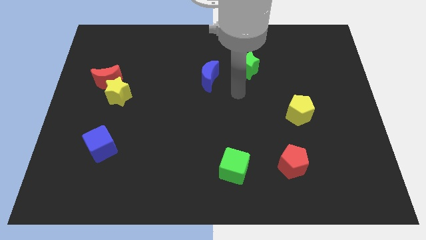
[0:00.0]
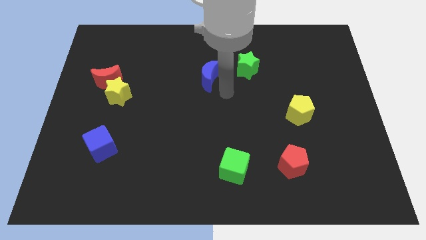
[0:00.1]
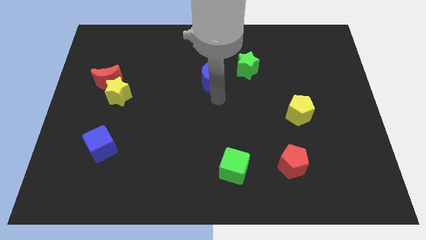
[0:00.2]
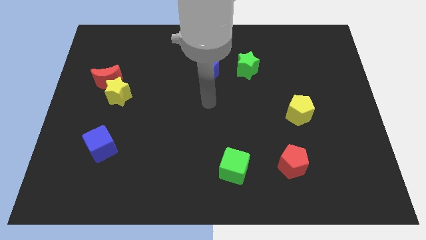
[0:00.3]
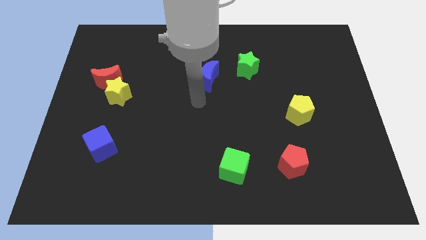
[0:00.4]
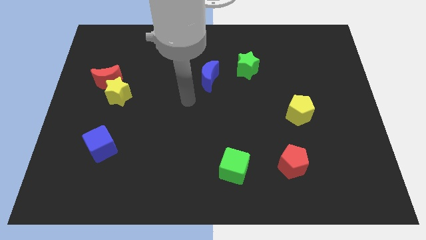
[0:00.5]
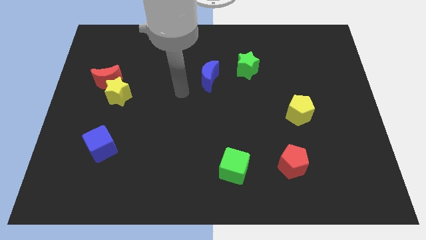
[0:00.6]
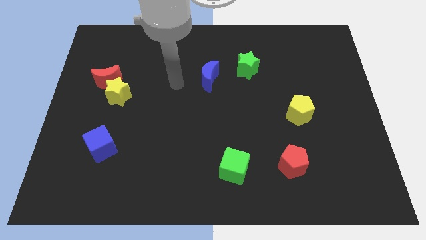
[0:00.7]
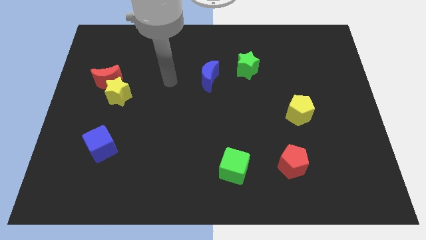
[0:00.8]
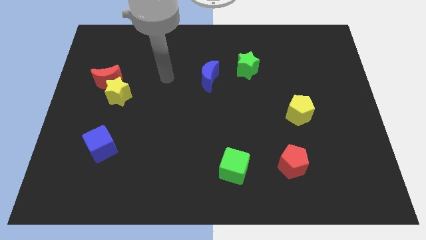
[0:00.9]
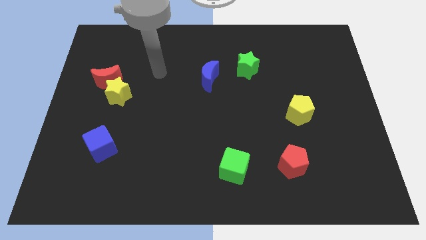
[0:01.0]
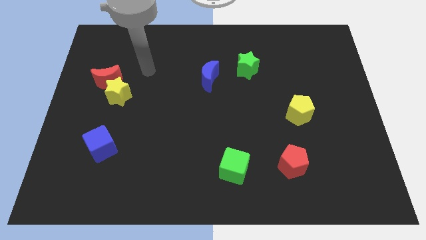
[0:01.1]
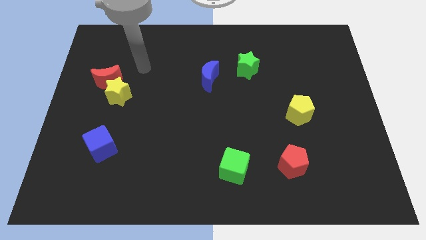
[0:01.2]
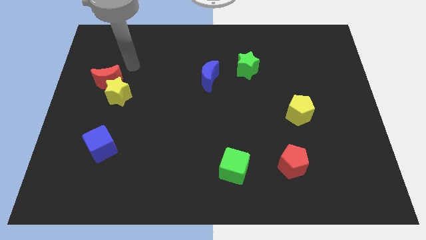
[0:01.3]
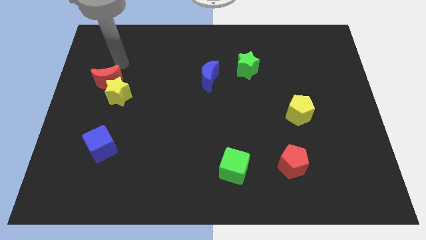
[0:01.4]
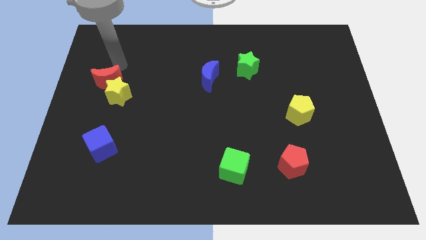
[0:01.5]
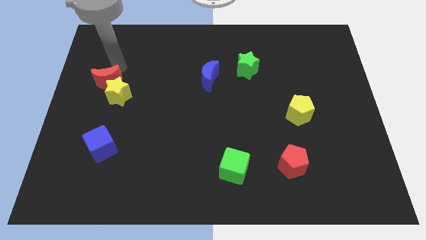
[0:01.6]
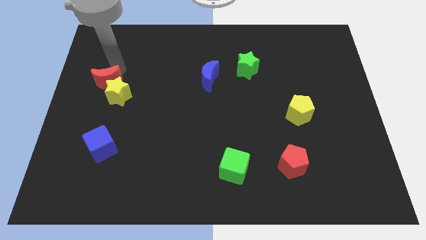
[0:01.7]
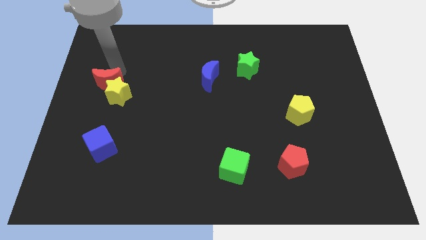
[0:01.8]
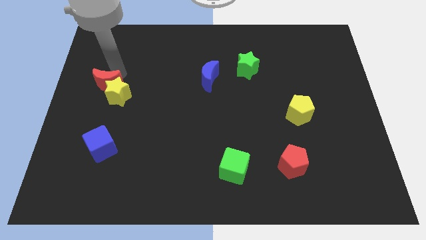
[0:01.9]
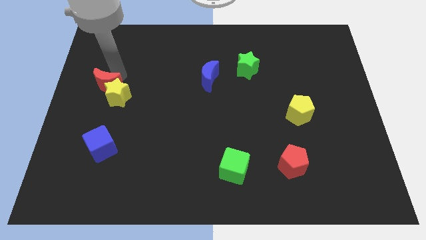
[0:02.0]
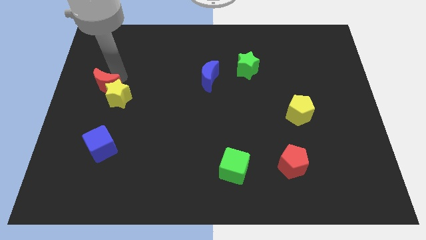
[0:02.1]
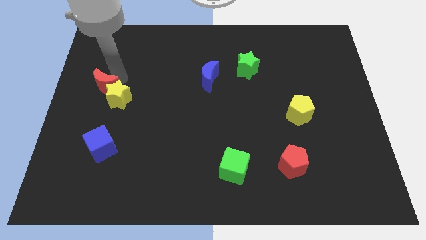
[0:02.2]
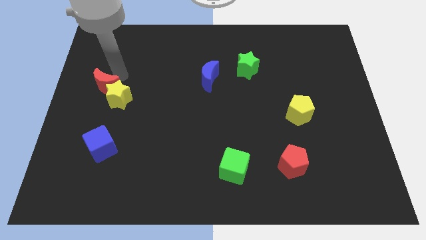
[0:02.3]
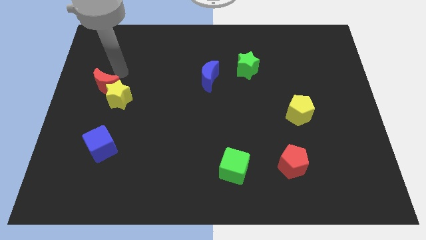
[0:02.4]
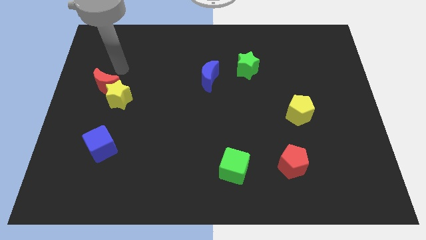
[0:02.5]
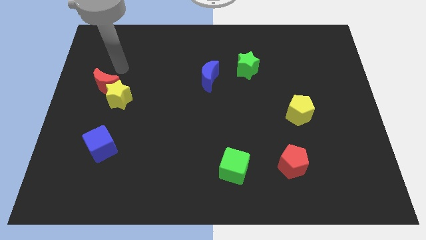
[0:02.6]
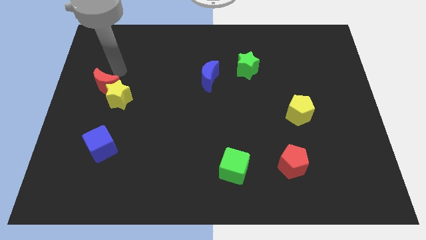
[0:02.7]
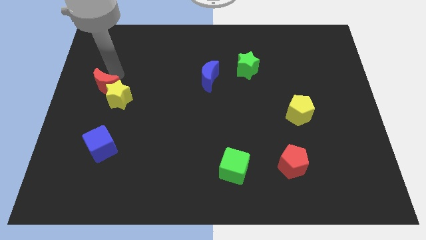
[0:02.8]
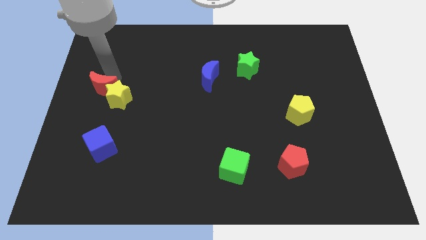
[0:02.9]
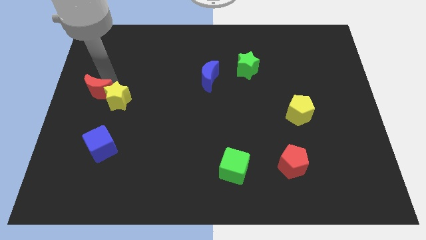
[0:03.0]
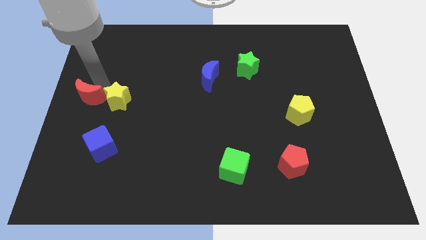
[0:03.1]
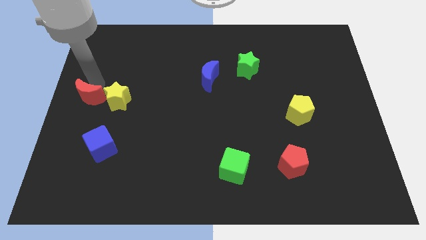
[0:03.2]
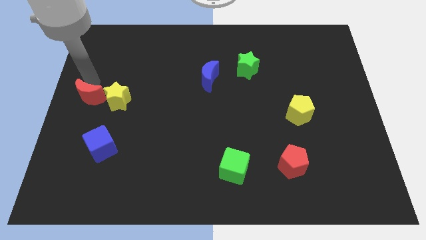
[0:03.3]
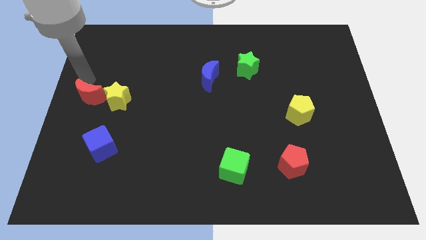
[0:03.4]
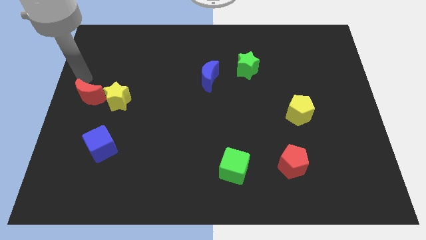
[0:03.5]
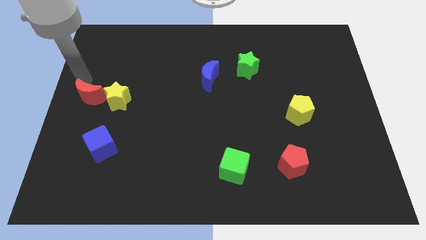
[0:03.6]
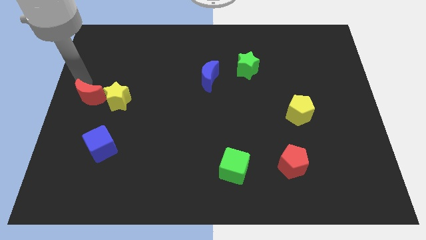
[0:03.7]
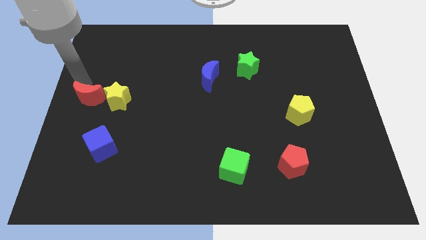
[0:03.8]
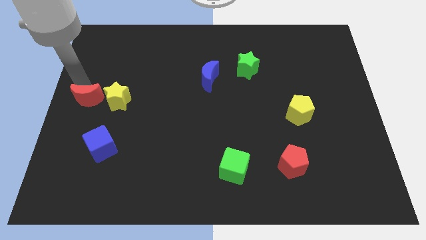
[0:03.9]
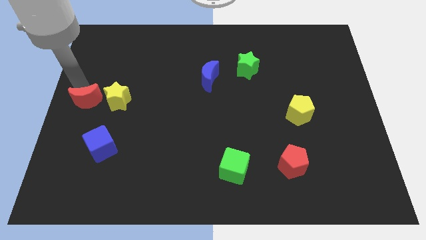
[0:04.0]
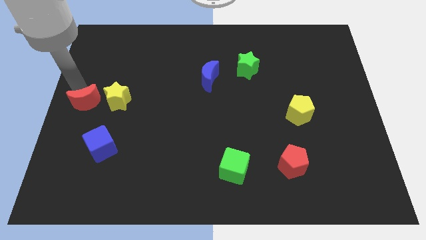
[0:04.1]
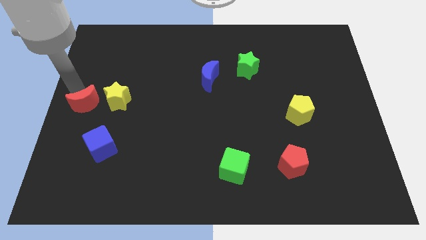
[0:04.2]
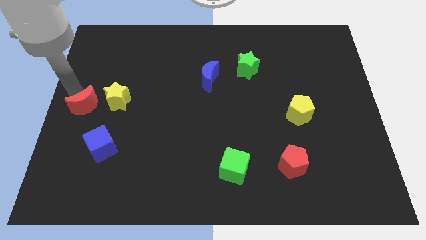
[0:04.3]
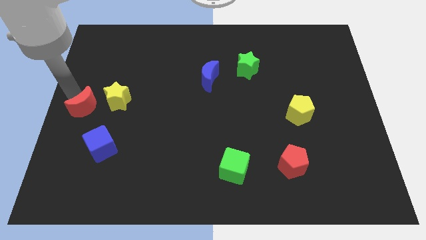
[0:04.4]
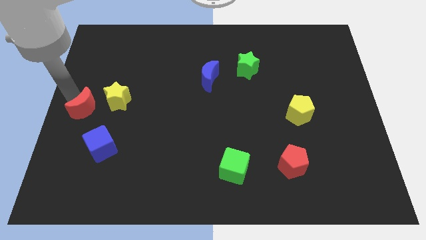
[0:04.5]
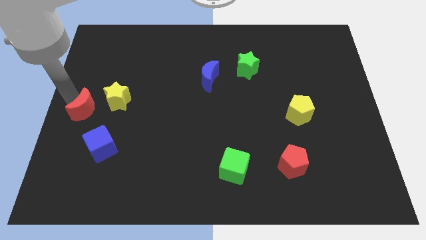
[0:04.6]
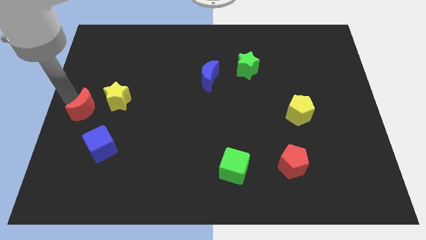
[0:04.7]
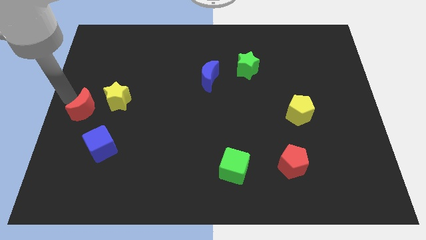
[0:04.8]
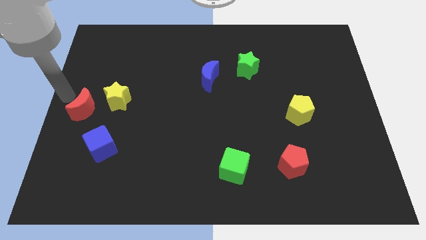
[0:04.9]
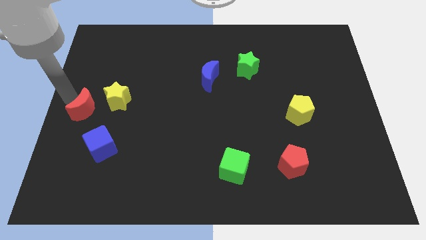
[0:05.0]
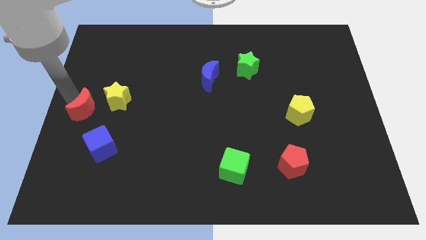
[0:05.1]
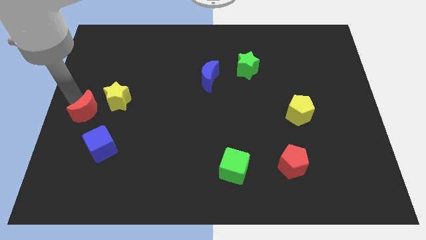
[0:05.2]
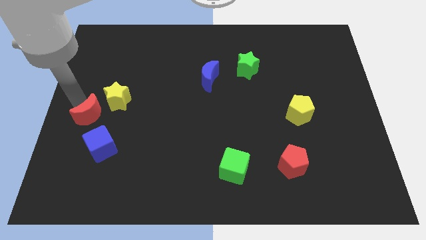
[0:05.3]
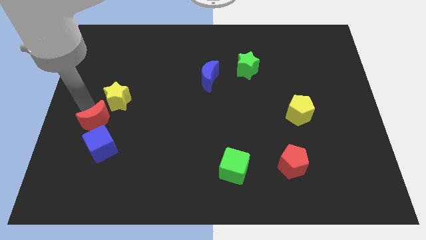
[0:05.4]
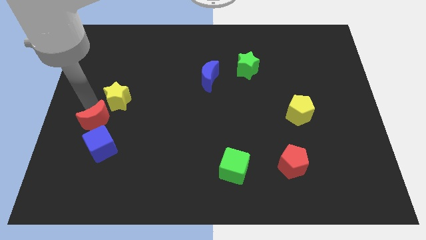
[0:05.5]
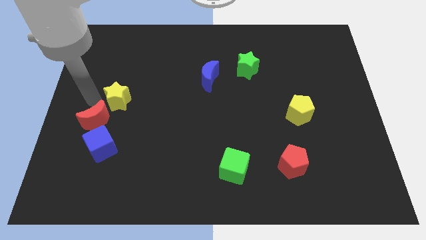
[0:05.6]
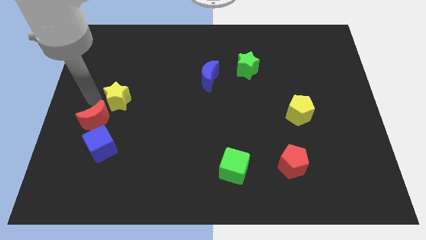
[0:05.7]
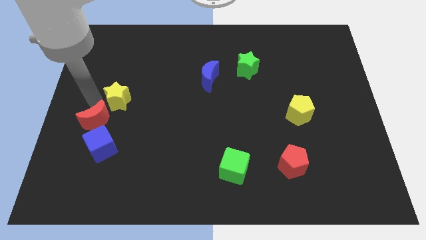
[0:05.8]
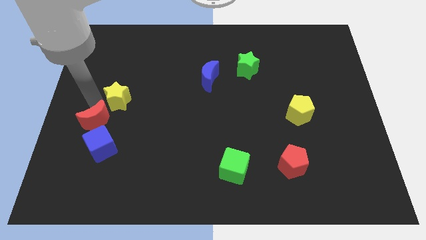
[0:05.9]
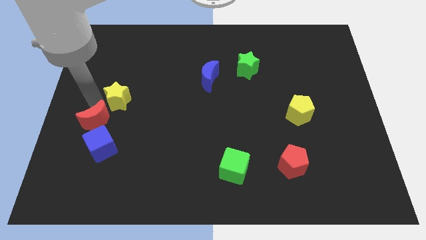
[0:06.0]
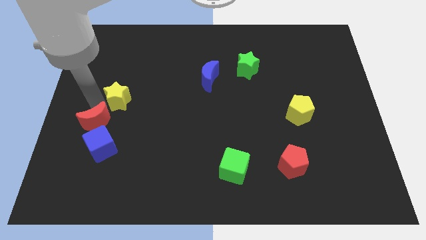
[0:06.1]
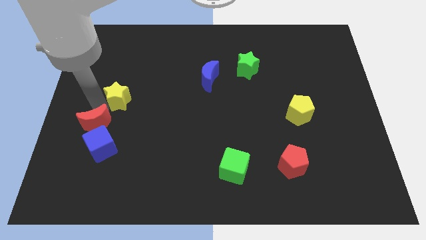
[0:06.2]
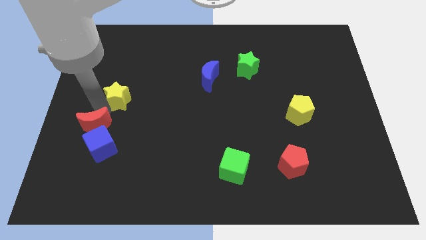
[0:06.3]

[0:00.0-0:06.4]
put the red moon next to the blue cube
